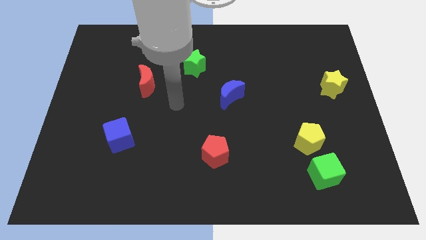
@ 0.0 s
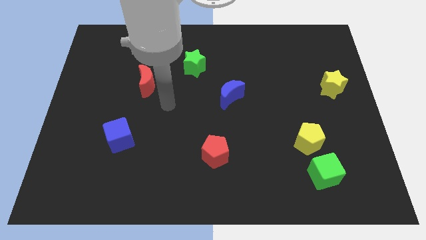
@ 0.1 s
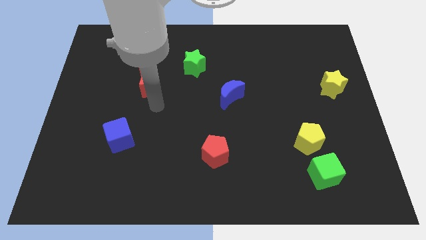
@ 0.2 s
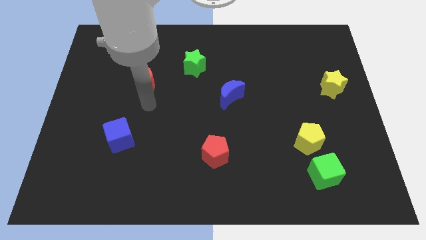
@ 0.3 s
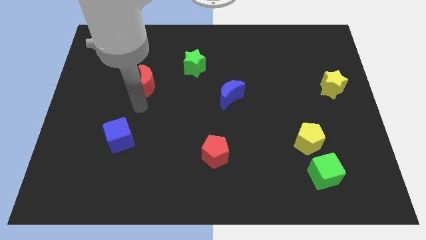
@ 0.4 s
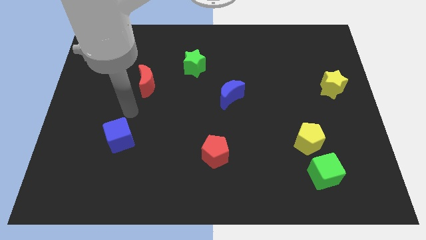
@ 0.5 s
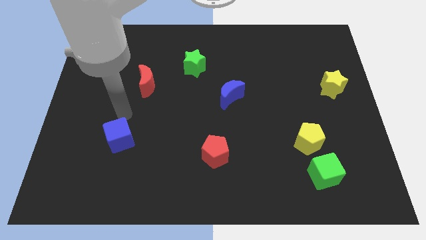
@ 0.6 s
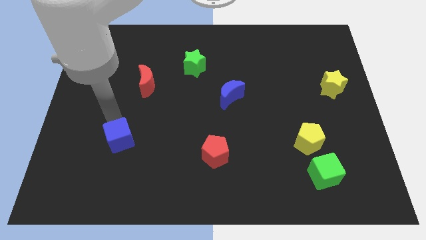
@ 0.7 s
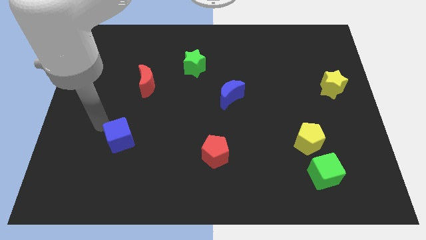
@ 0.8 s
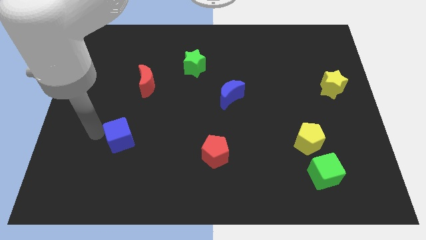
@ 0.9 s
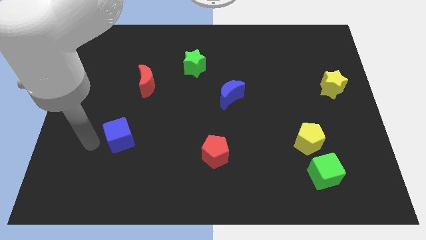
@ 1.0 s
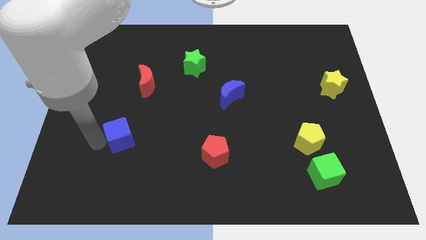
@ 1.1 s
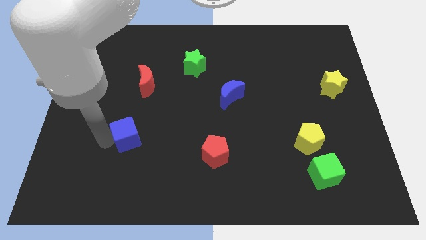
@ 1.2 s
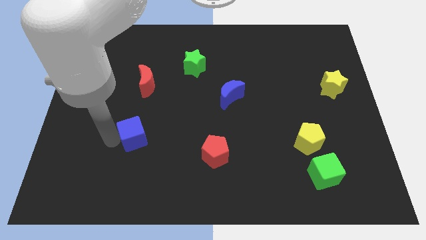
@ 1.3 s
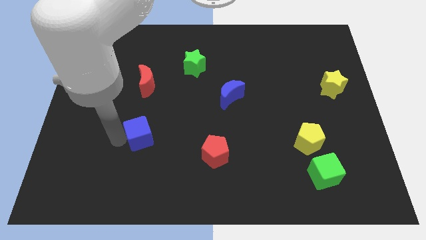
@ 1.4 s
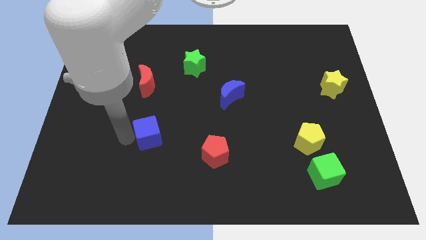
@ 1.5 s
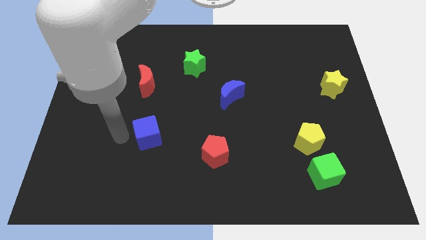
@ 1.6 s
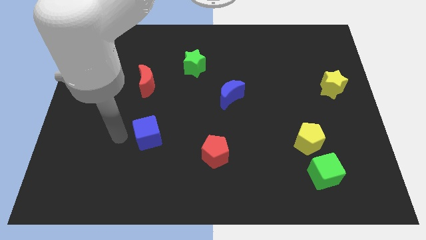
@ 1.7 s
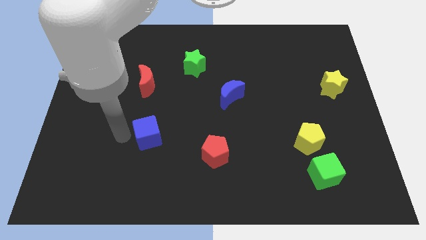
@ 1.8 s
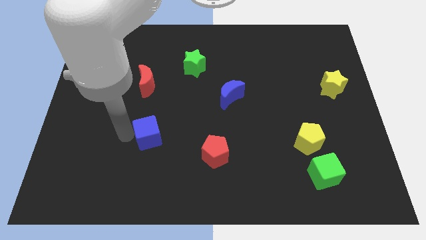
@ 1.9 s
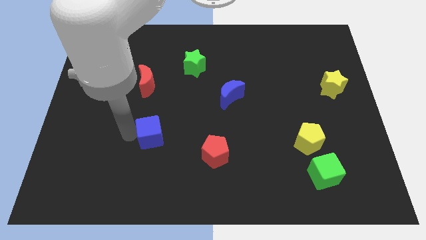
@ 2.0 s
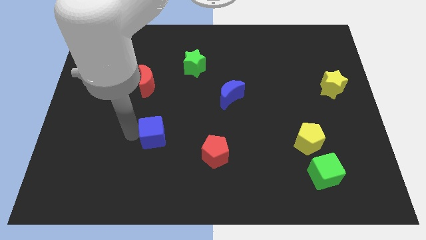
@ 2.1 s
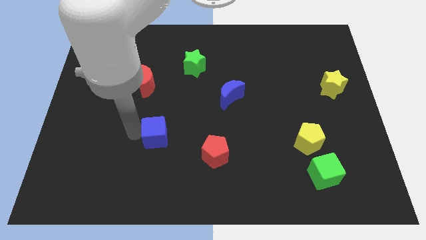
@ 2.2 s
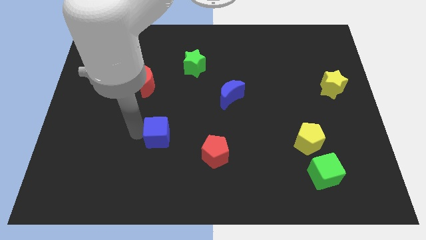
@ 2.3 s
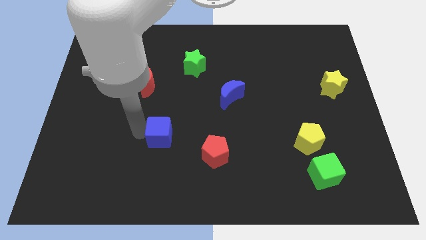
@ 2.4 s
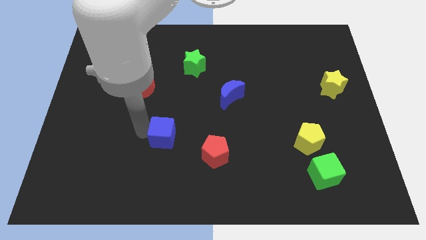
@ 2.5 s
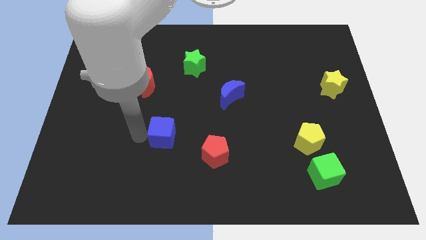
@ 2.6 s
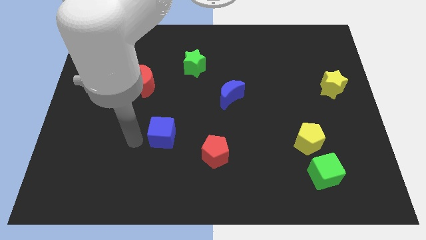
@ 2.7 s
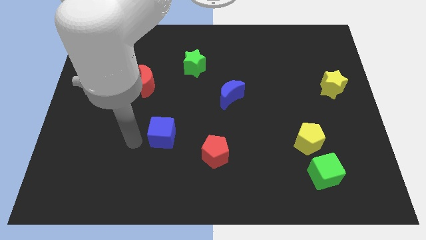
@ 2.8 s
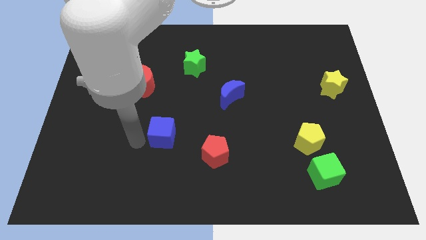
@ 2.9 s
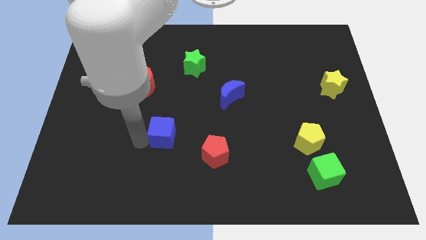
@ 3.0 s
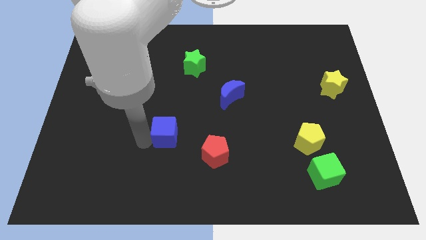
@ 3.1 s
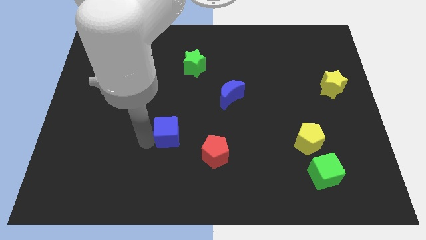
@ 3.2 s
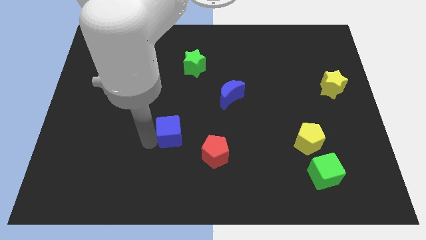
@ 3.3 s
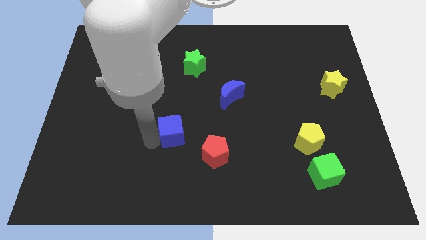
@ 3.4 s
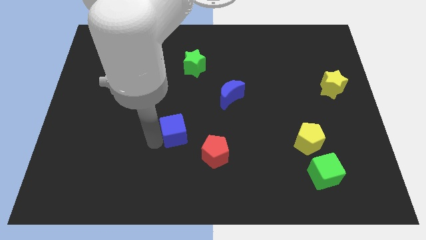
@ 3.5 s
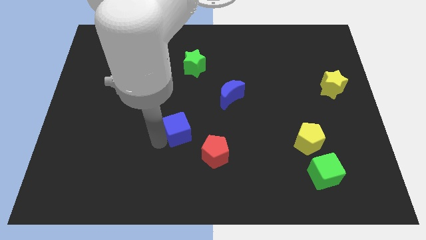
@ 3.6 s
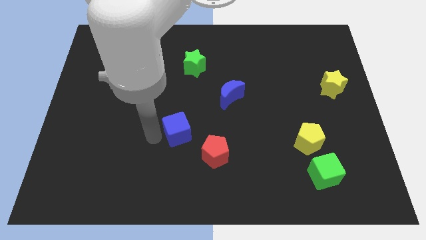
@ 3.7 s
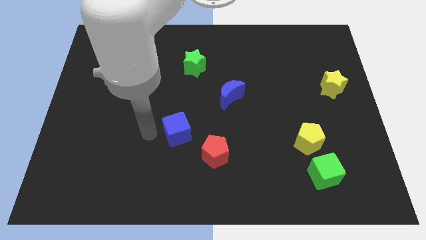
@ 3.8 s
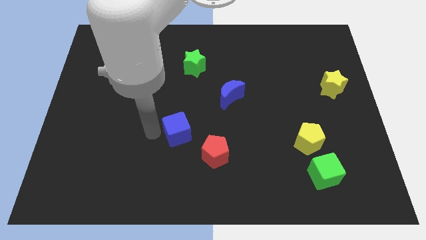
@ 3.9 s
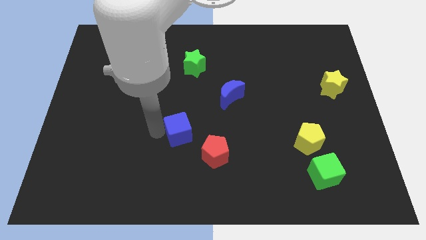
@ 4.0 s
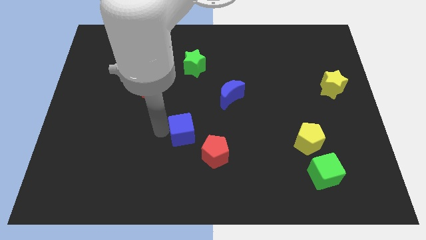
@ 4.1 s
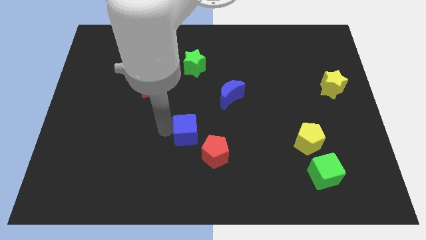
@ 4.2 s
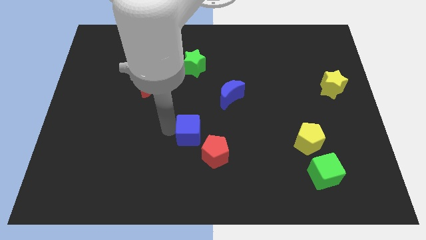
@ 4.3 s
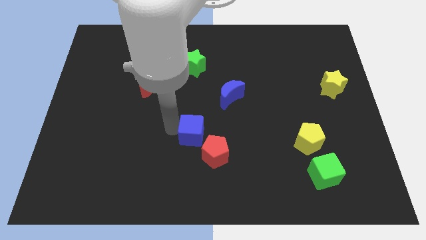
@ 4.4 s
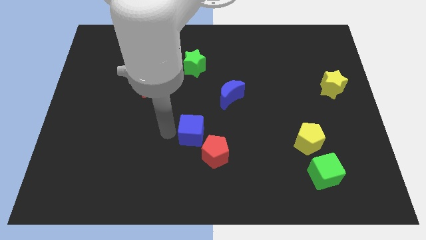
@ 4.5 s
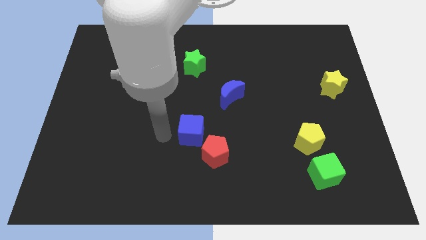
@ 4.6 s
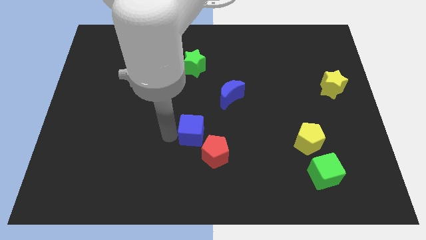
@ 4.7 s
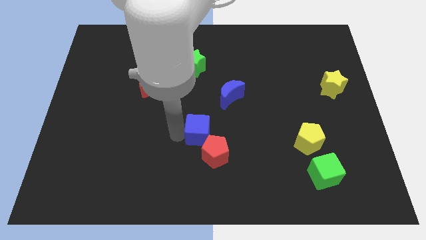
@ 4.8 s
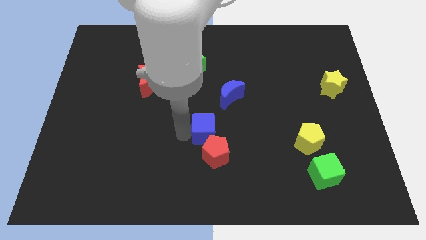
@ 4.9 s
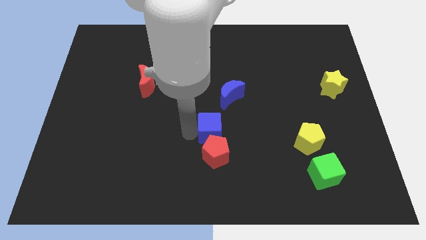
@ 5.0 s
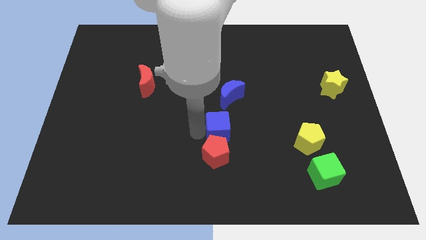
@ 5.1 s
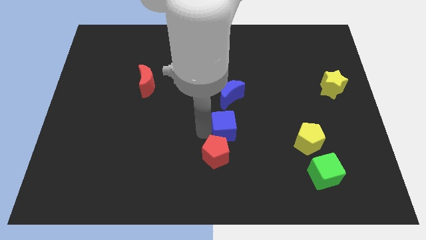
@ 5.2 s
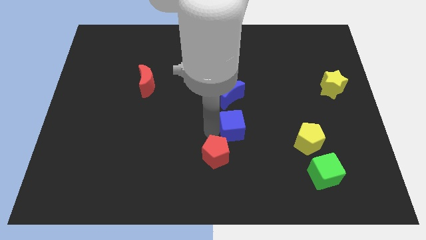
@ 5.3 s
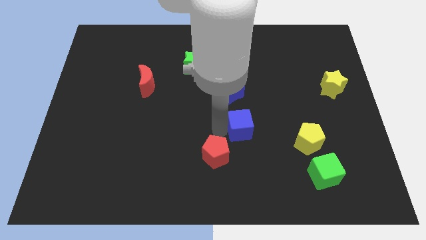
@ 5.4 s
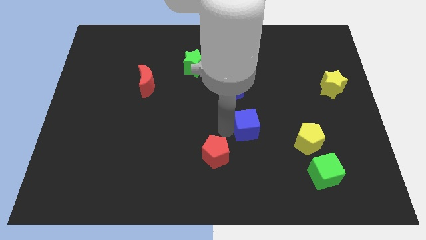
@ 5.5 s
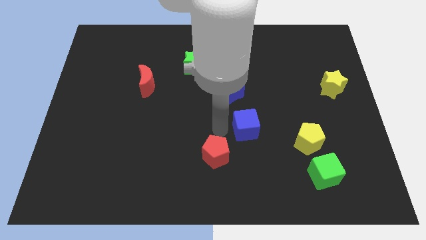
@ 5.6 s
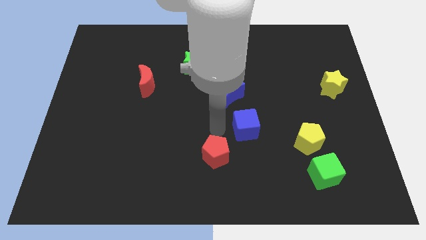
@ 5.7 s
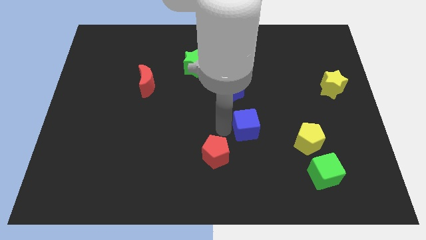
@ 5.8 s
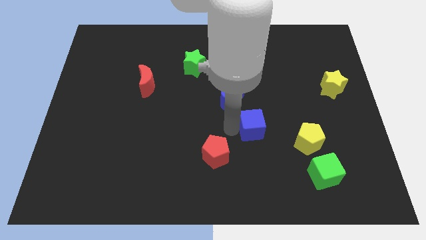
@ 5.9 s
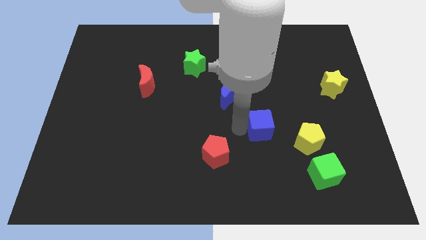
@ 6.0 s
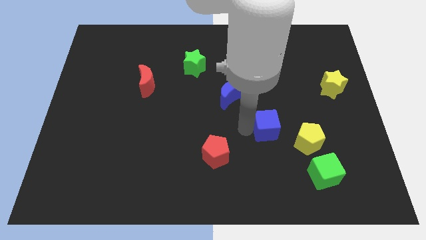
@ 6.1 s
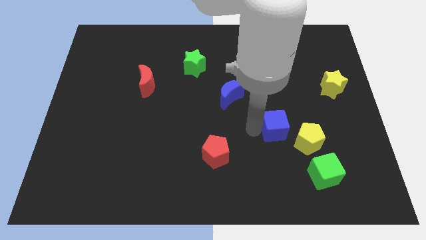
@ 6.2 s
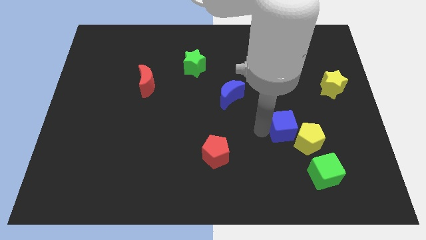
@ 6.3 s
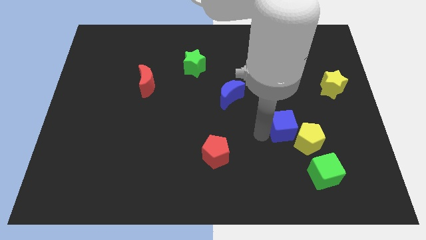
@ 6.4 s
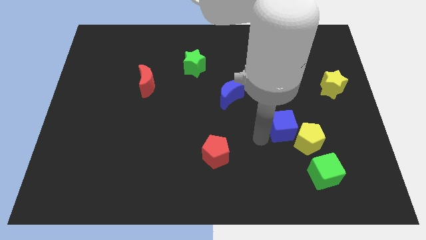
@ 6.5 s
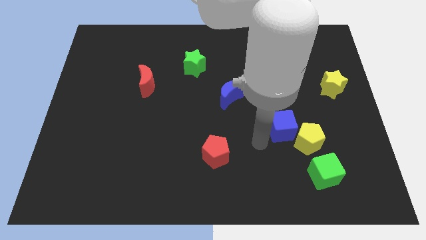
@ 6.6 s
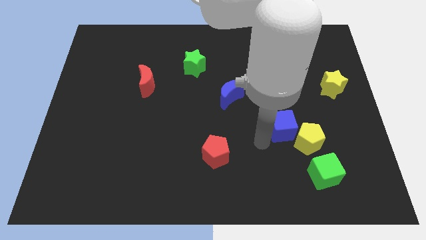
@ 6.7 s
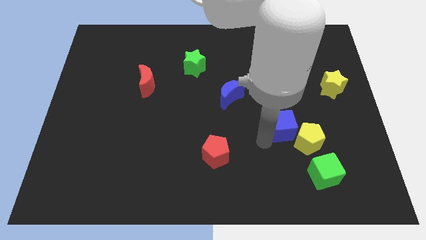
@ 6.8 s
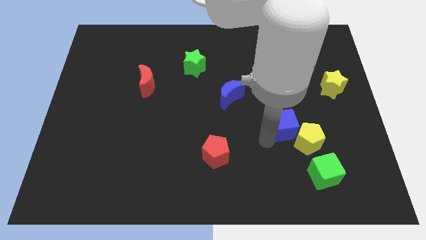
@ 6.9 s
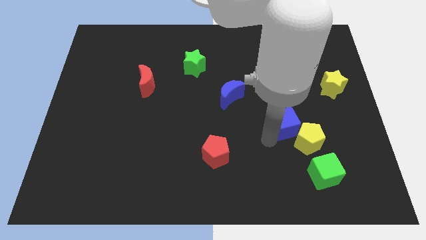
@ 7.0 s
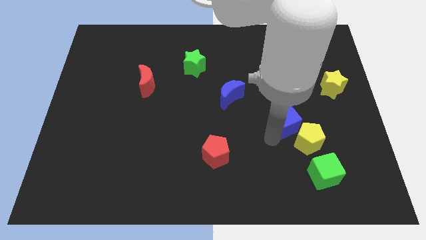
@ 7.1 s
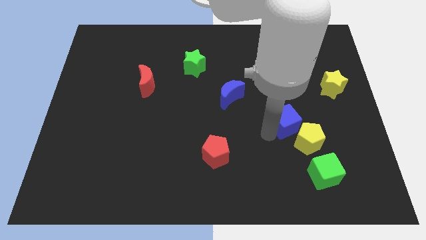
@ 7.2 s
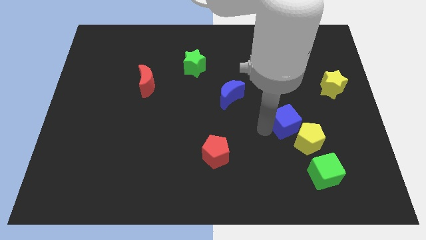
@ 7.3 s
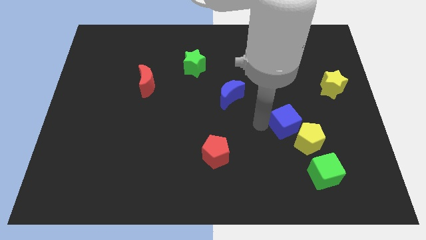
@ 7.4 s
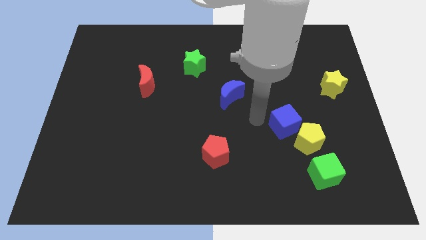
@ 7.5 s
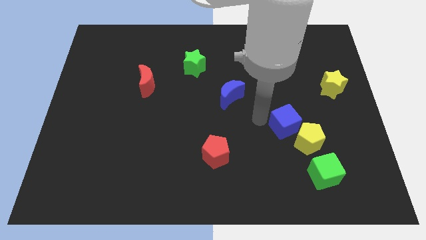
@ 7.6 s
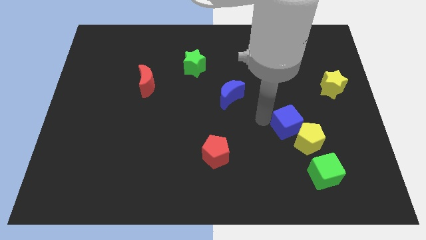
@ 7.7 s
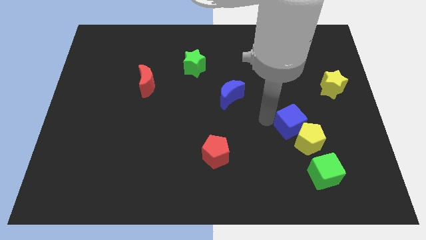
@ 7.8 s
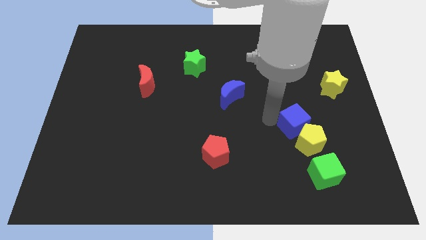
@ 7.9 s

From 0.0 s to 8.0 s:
move the blue cube to the top of the green cube

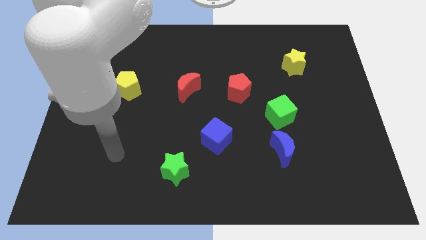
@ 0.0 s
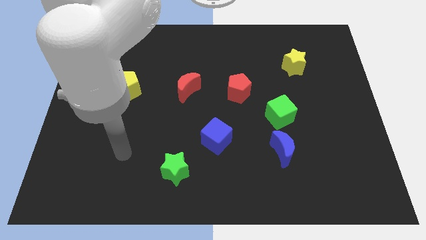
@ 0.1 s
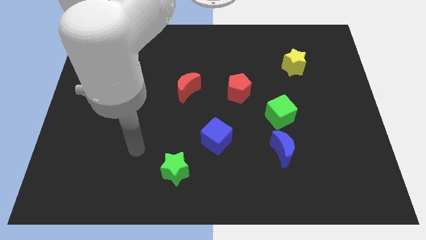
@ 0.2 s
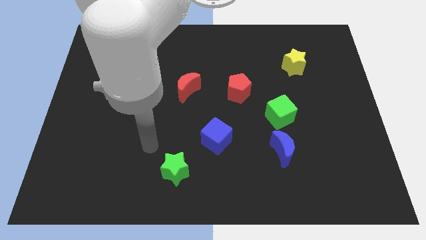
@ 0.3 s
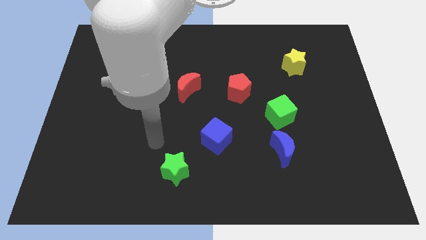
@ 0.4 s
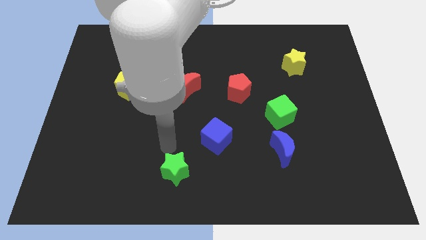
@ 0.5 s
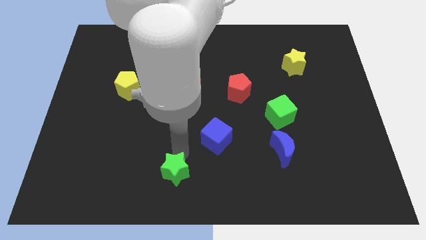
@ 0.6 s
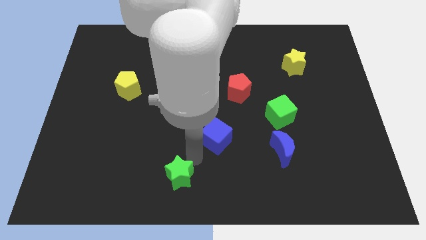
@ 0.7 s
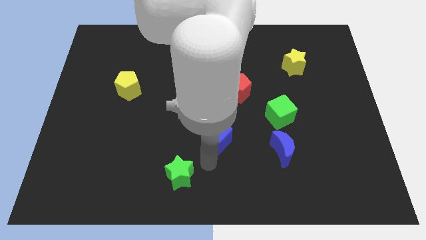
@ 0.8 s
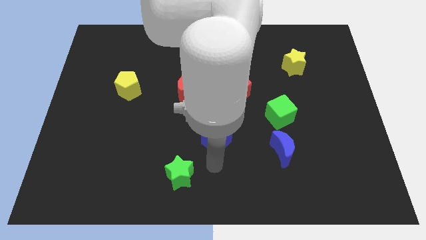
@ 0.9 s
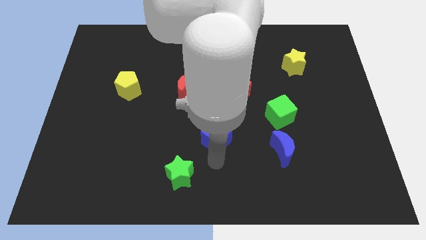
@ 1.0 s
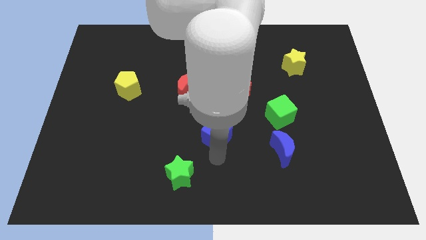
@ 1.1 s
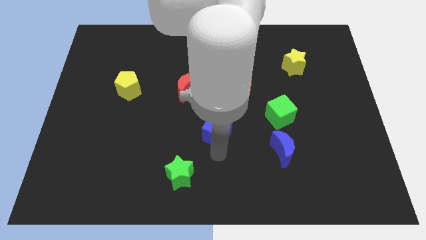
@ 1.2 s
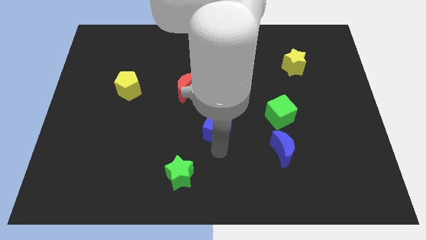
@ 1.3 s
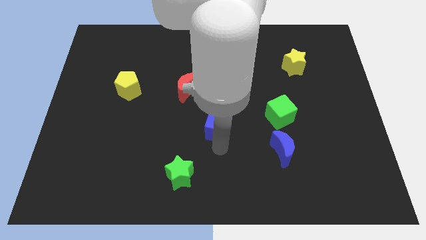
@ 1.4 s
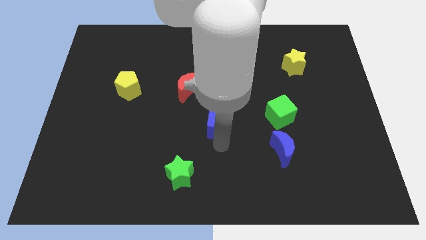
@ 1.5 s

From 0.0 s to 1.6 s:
slide the blue cube to the bottom left side of the red pentagon
